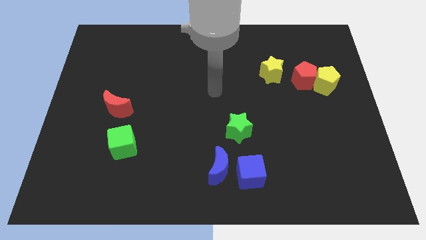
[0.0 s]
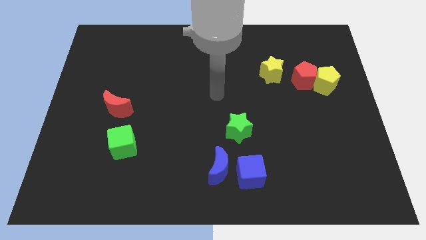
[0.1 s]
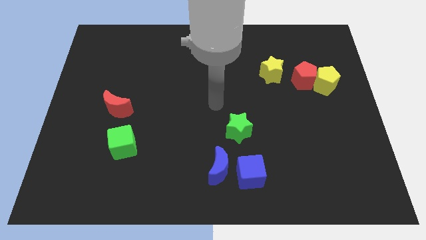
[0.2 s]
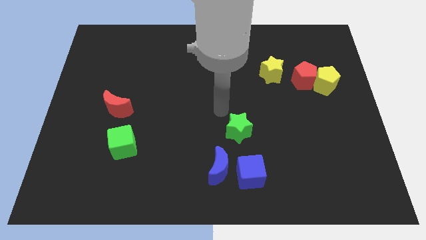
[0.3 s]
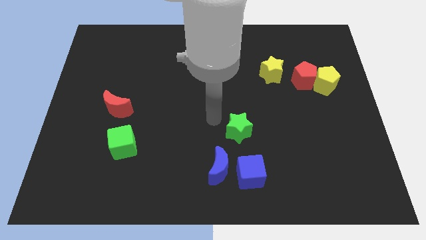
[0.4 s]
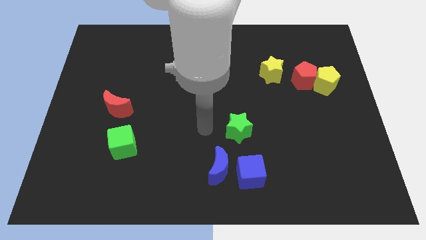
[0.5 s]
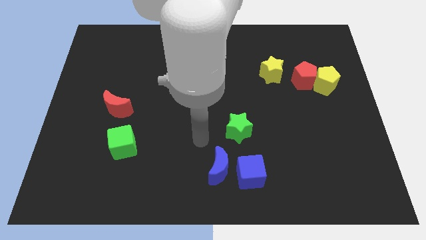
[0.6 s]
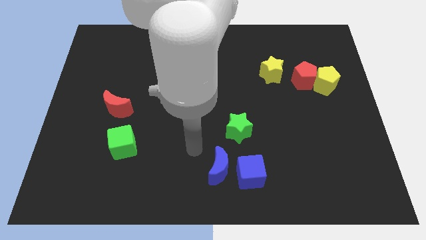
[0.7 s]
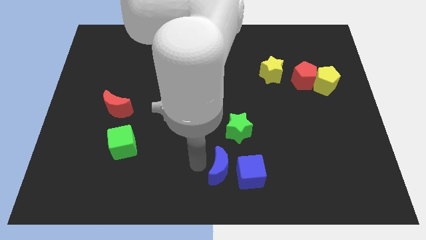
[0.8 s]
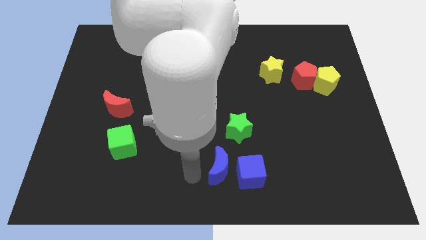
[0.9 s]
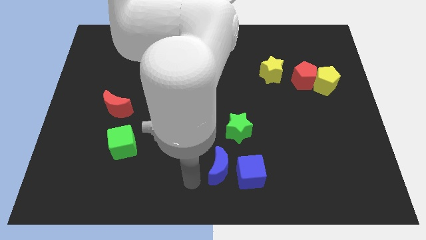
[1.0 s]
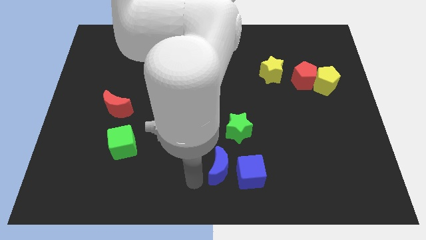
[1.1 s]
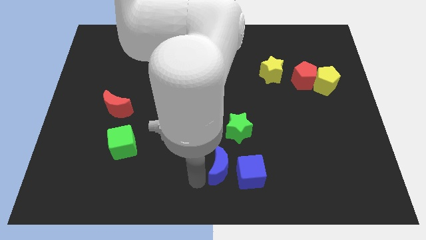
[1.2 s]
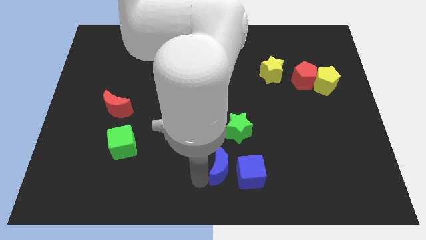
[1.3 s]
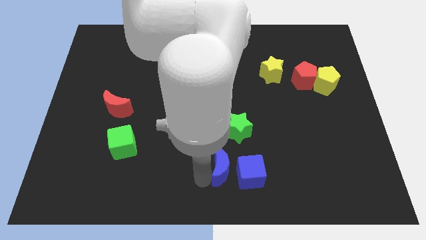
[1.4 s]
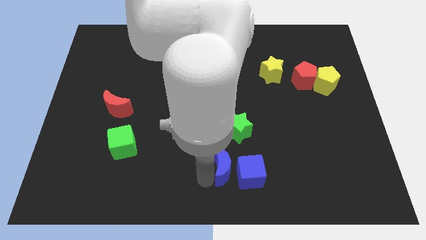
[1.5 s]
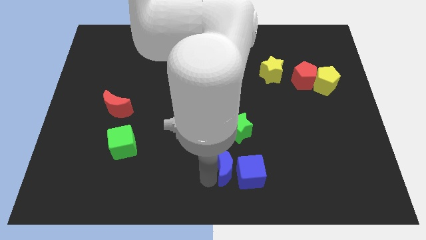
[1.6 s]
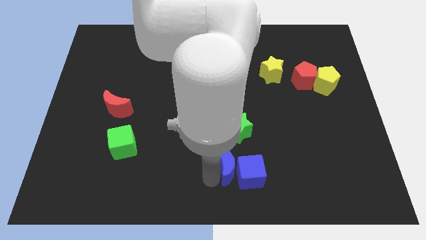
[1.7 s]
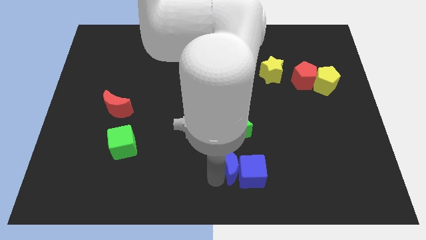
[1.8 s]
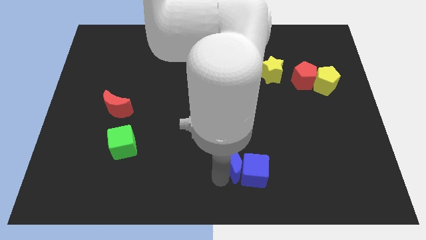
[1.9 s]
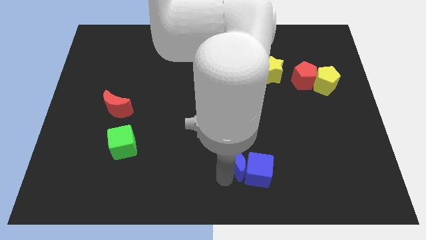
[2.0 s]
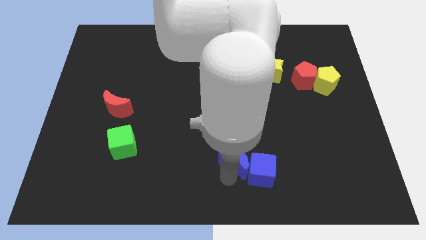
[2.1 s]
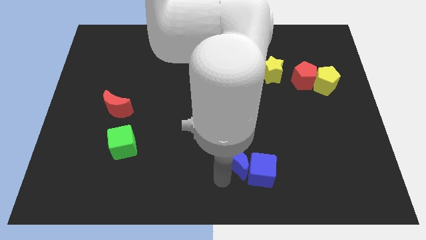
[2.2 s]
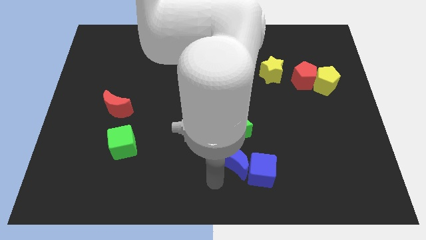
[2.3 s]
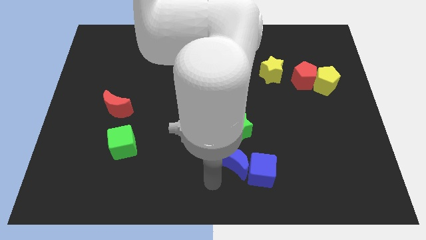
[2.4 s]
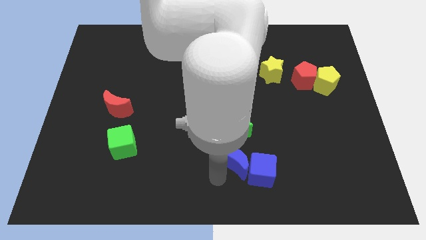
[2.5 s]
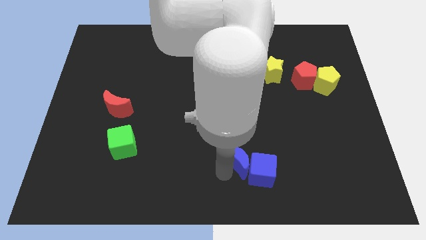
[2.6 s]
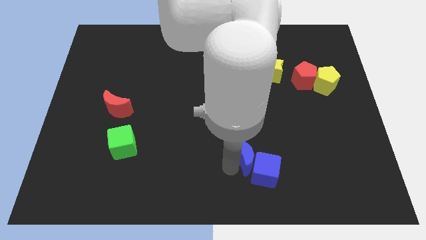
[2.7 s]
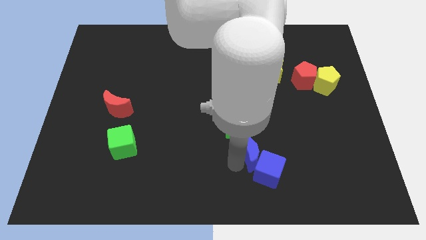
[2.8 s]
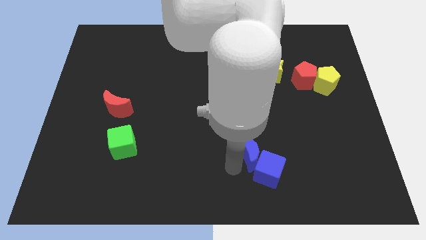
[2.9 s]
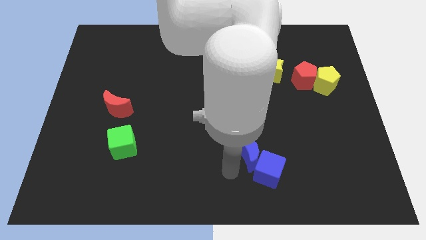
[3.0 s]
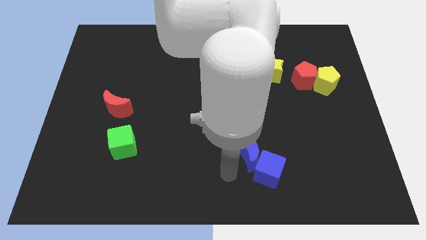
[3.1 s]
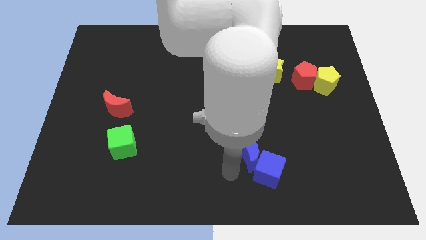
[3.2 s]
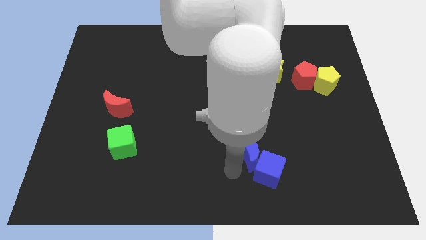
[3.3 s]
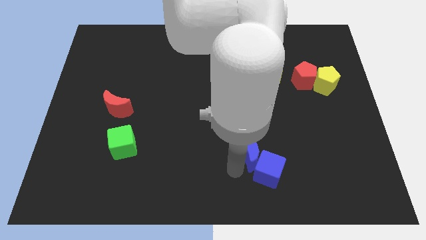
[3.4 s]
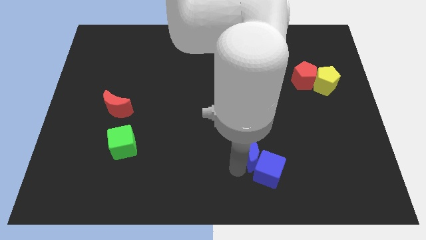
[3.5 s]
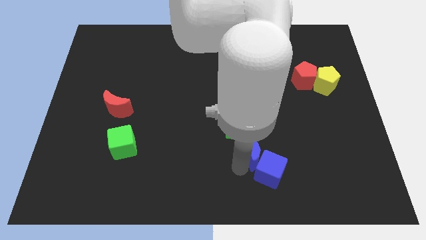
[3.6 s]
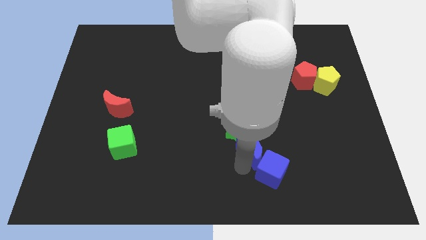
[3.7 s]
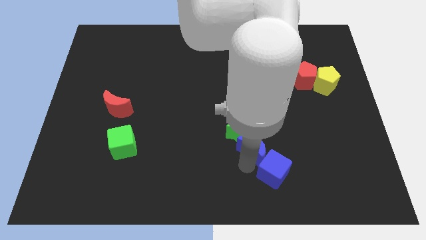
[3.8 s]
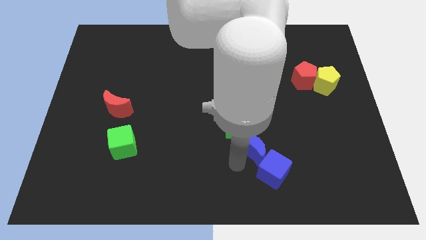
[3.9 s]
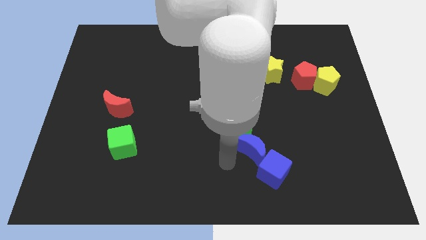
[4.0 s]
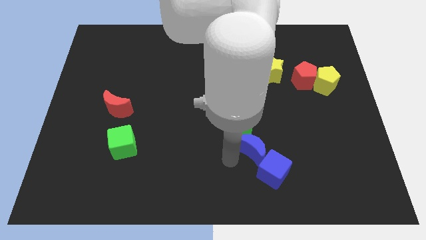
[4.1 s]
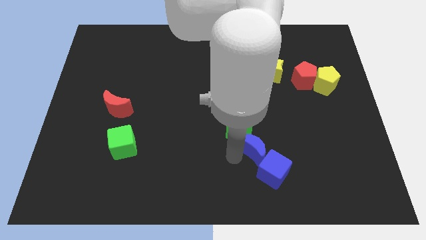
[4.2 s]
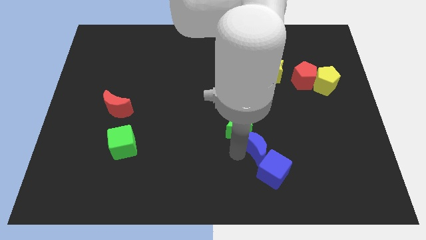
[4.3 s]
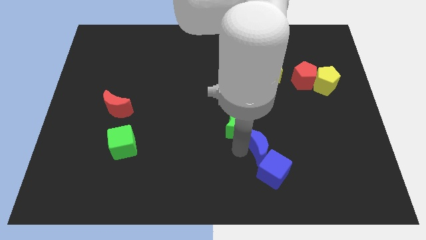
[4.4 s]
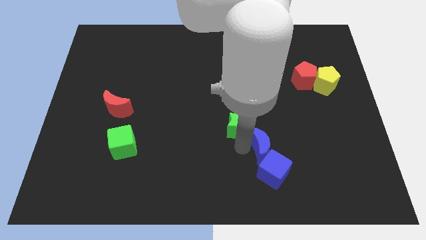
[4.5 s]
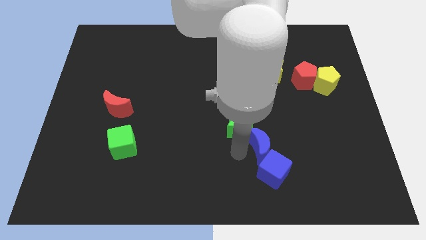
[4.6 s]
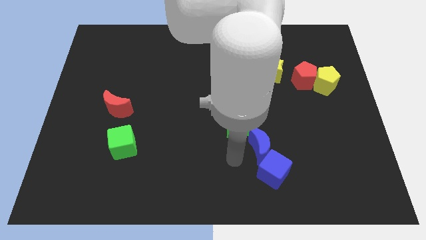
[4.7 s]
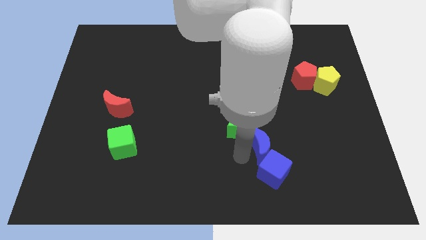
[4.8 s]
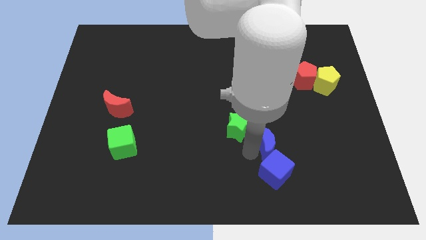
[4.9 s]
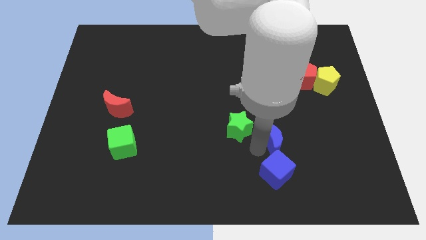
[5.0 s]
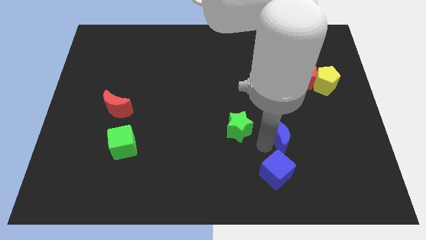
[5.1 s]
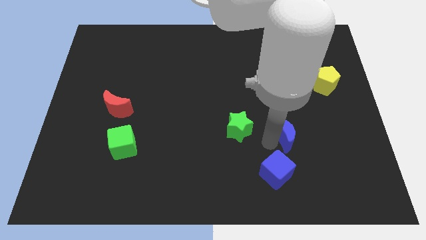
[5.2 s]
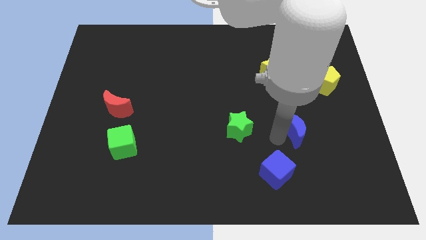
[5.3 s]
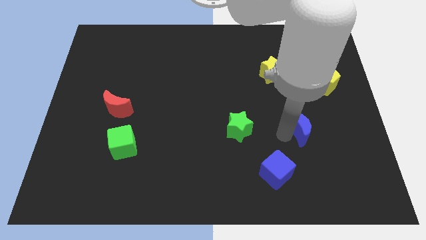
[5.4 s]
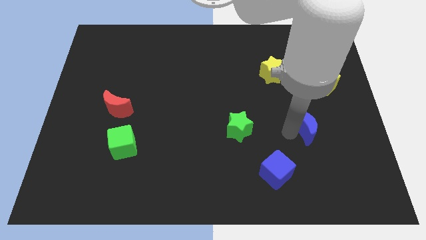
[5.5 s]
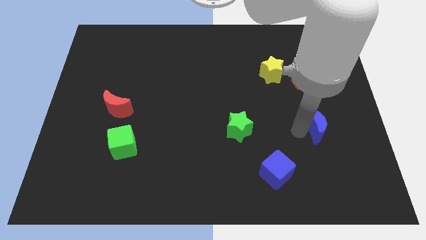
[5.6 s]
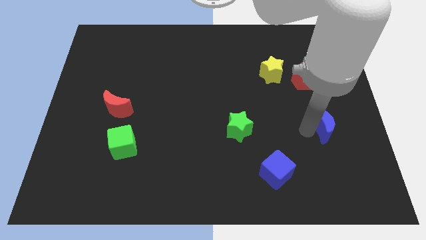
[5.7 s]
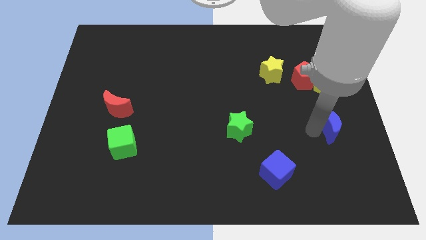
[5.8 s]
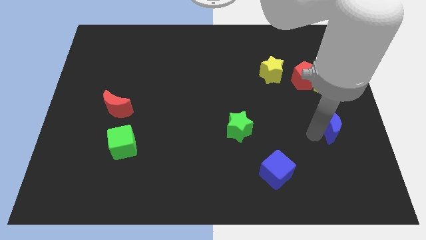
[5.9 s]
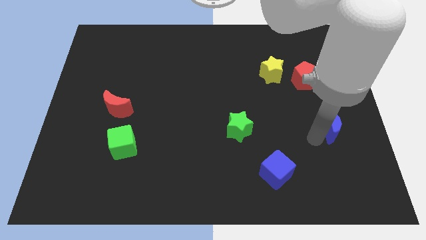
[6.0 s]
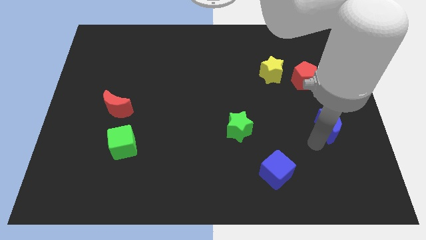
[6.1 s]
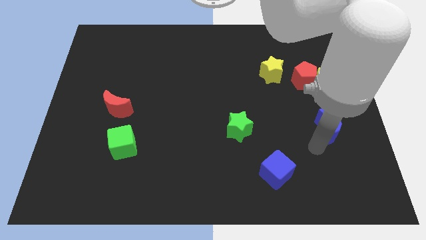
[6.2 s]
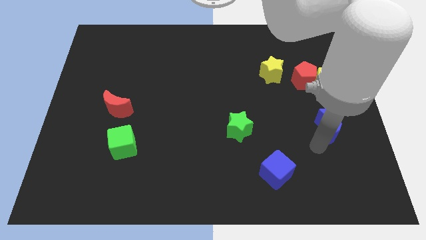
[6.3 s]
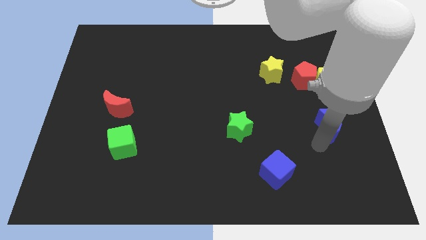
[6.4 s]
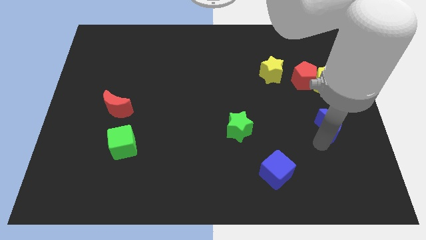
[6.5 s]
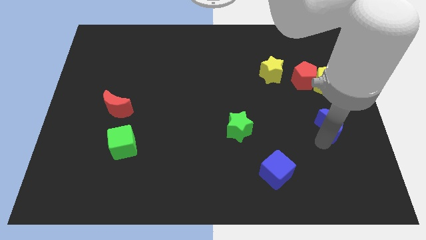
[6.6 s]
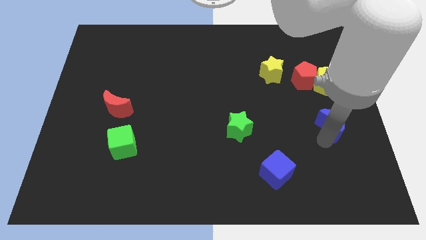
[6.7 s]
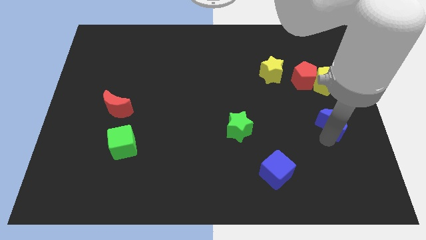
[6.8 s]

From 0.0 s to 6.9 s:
move the blue moon to the right side
